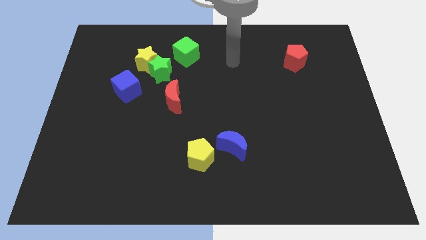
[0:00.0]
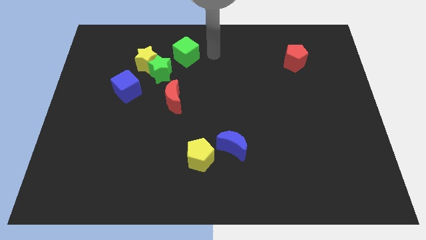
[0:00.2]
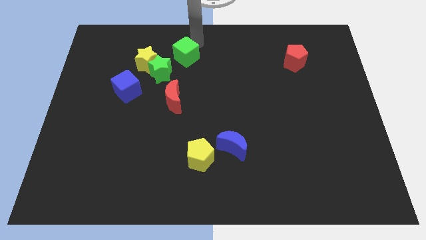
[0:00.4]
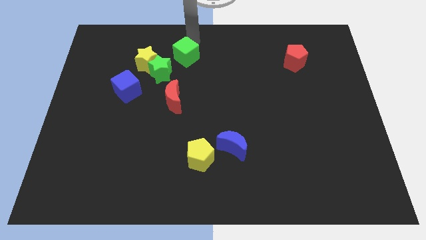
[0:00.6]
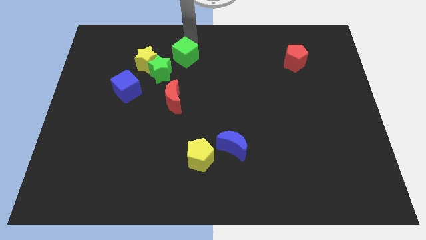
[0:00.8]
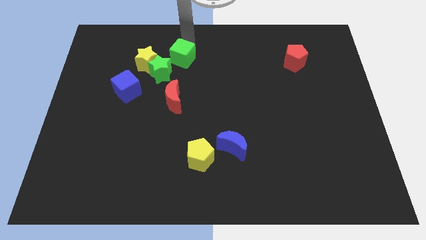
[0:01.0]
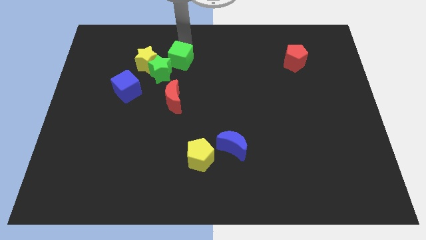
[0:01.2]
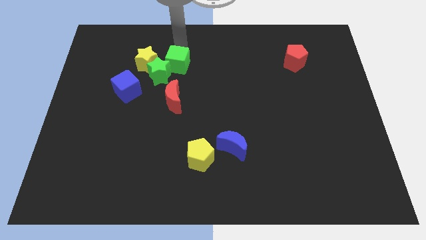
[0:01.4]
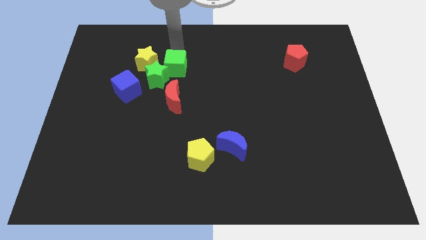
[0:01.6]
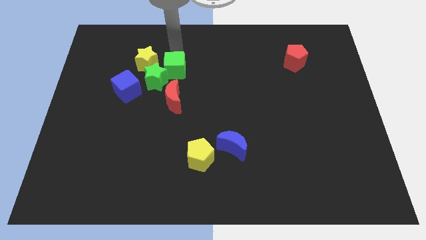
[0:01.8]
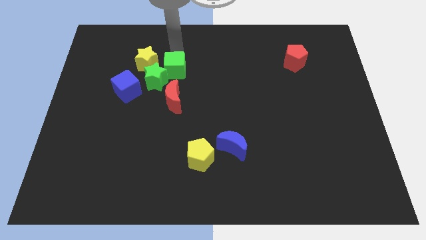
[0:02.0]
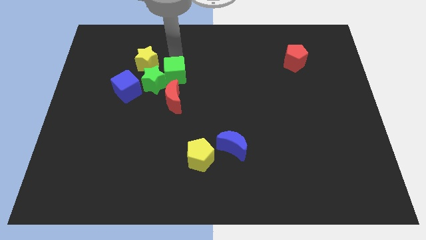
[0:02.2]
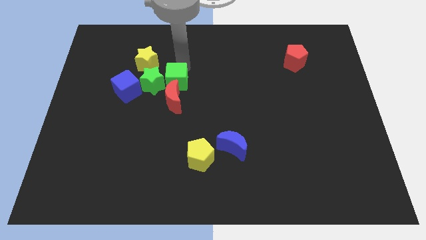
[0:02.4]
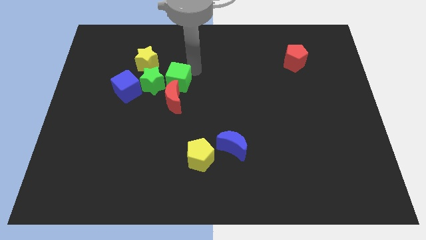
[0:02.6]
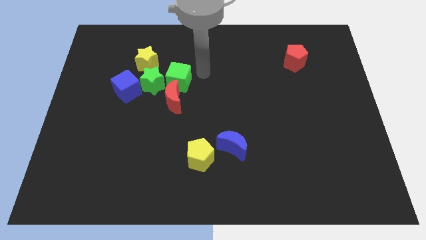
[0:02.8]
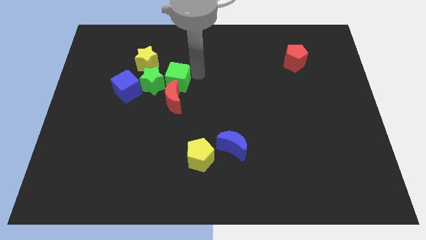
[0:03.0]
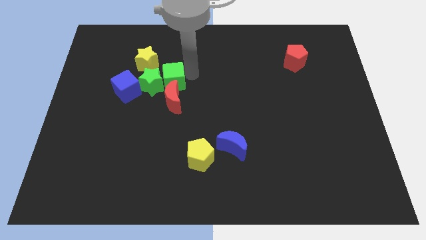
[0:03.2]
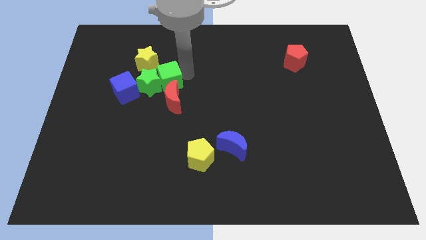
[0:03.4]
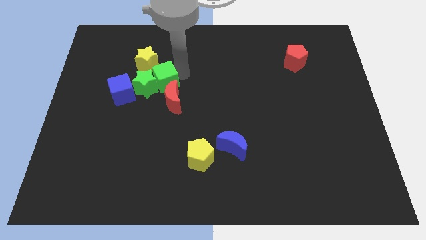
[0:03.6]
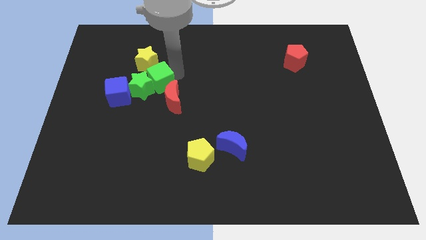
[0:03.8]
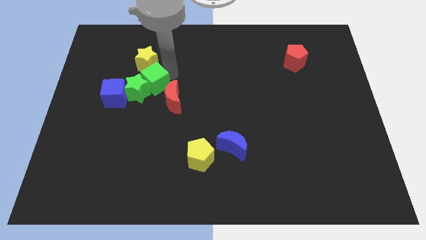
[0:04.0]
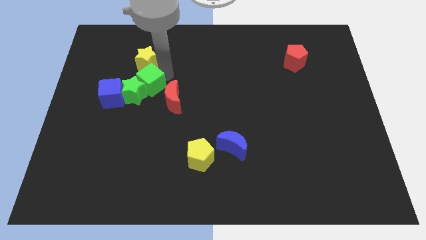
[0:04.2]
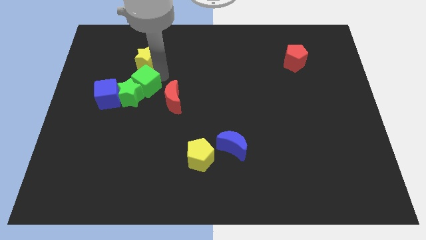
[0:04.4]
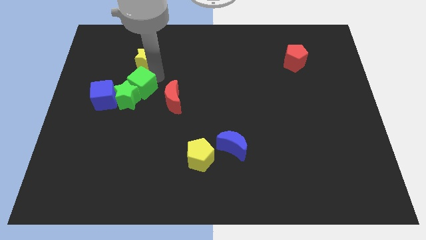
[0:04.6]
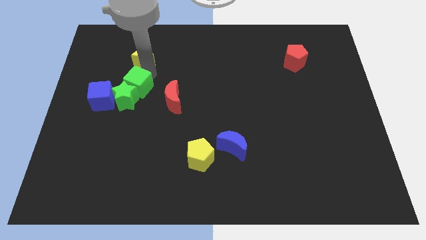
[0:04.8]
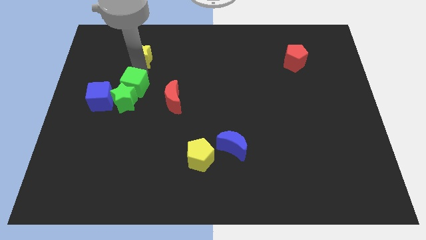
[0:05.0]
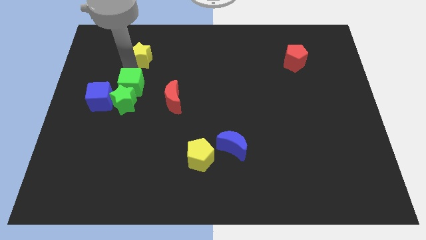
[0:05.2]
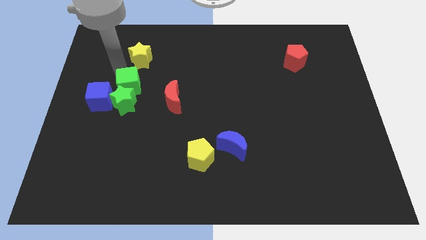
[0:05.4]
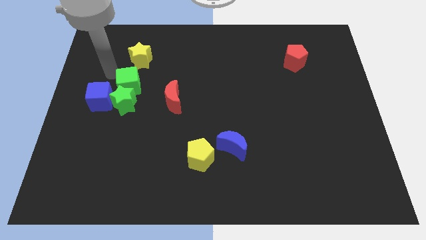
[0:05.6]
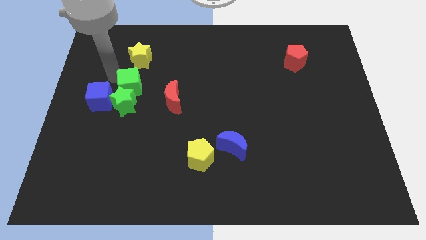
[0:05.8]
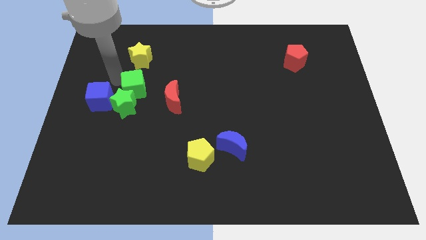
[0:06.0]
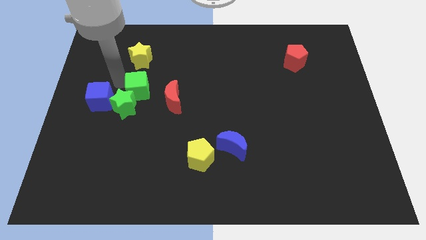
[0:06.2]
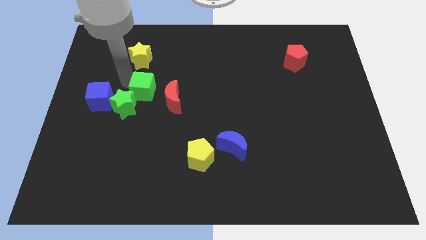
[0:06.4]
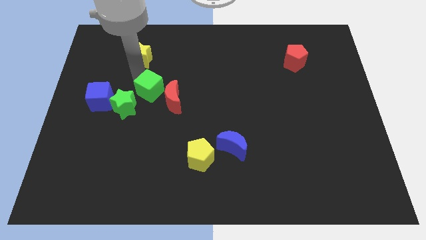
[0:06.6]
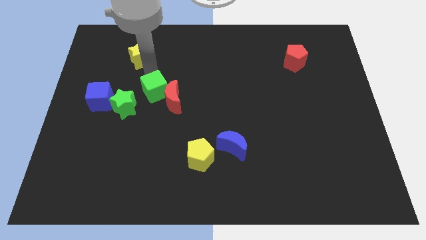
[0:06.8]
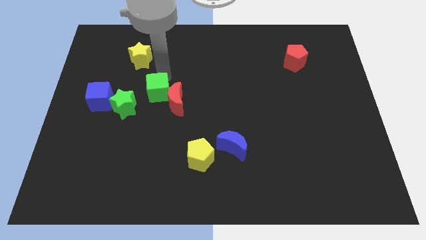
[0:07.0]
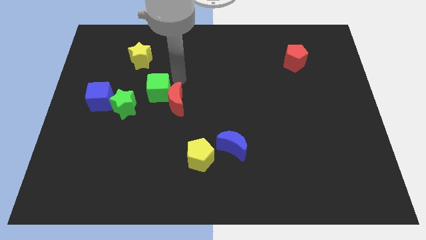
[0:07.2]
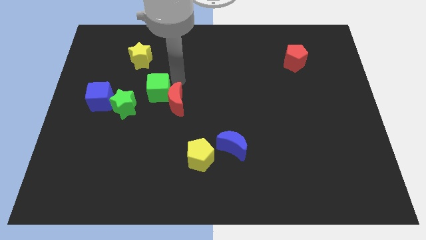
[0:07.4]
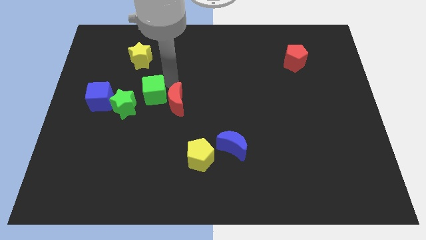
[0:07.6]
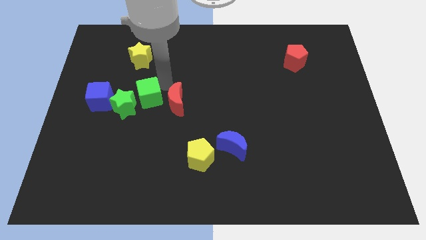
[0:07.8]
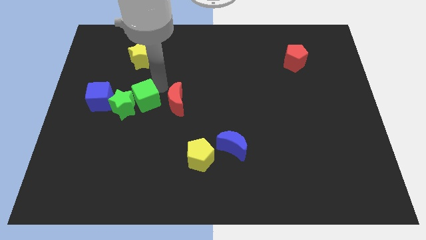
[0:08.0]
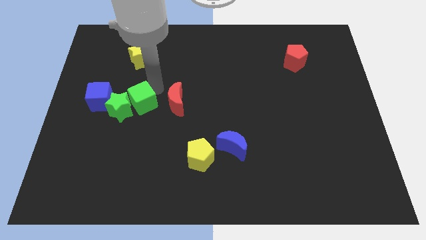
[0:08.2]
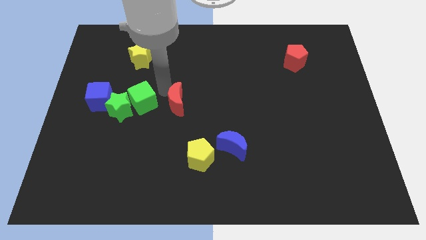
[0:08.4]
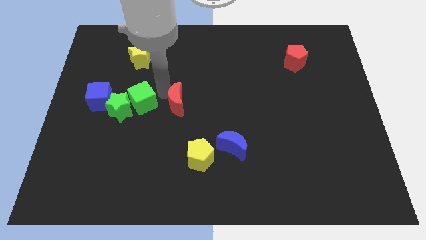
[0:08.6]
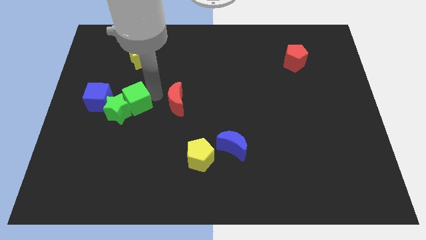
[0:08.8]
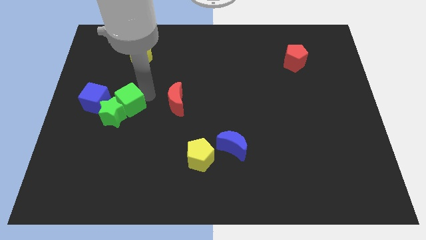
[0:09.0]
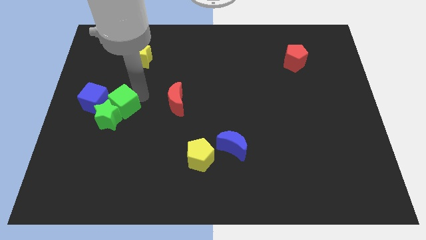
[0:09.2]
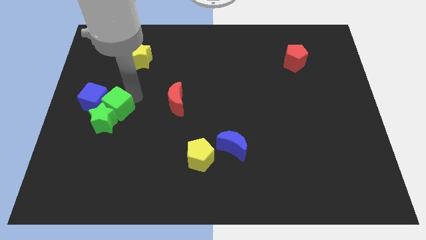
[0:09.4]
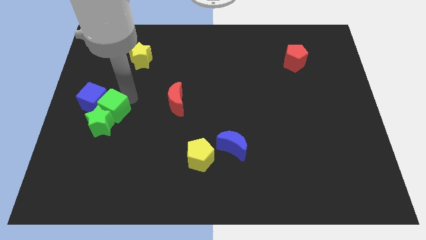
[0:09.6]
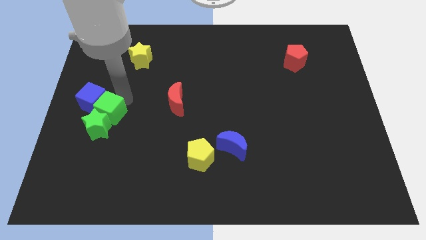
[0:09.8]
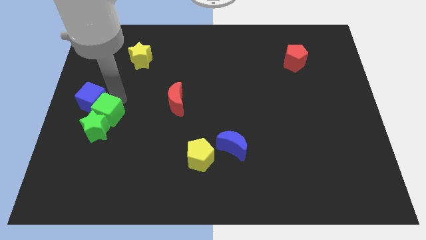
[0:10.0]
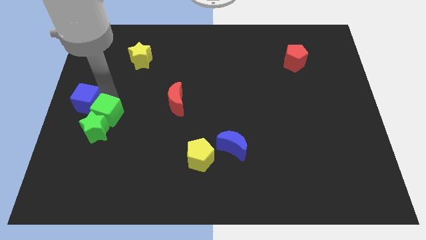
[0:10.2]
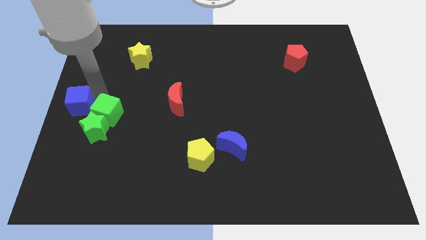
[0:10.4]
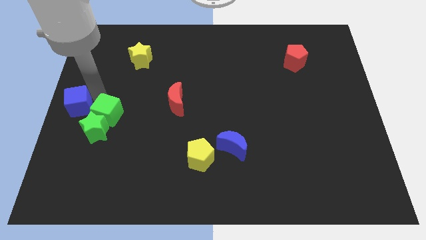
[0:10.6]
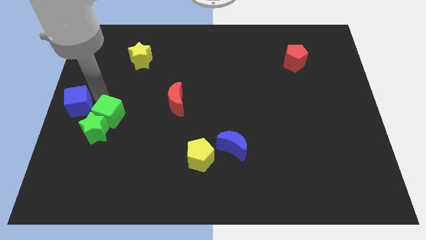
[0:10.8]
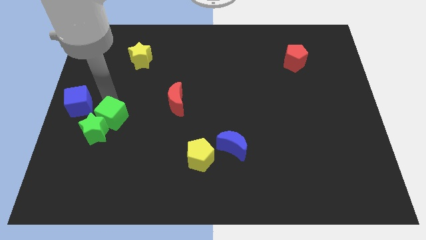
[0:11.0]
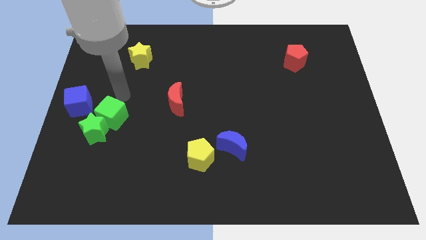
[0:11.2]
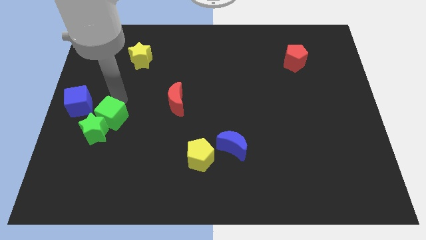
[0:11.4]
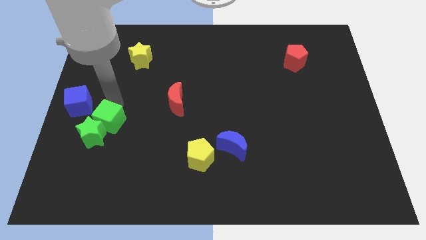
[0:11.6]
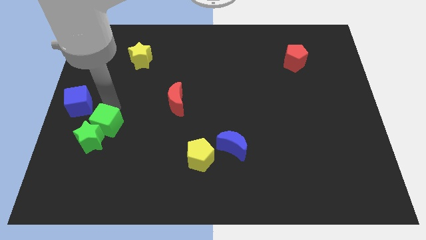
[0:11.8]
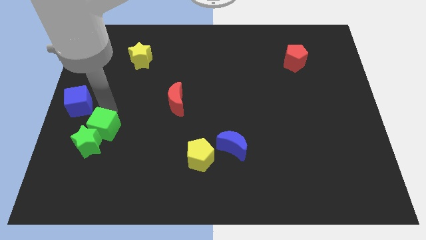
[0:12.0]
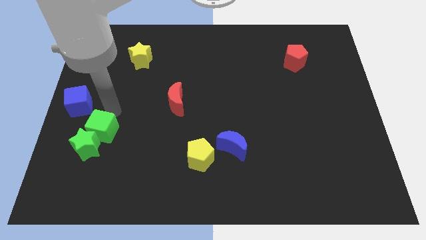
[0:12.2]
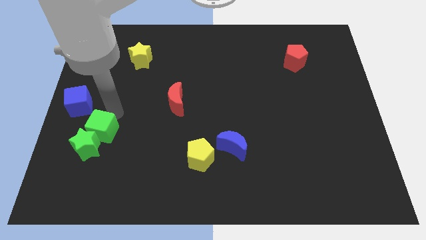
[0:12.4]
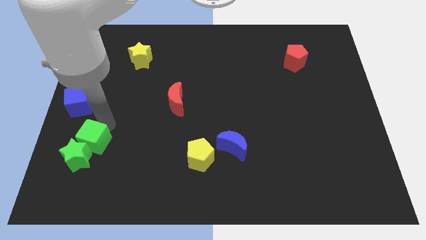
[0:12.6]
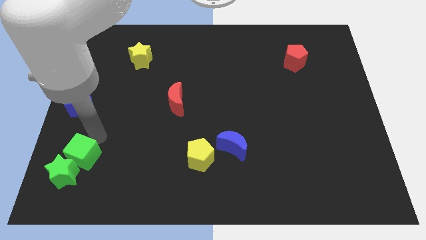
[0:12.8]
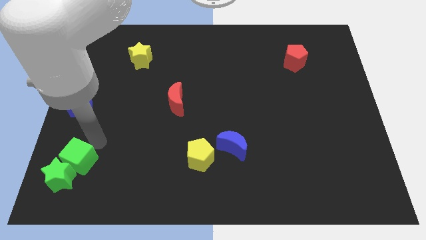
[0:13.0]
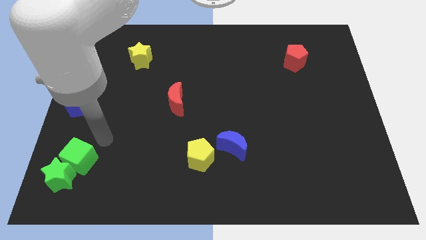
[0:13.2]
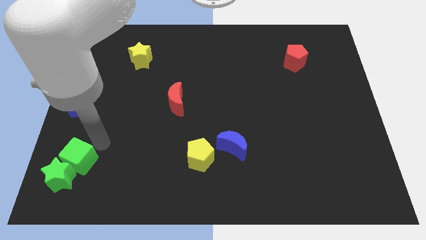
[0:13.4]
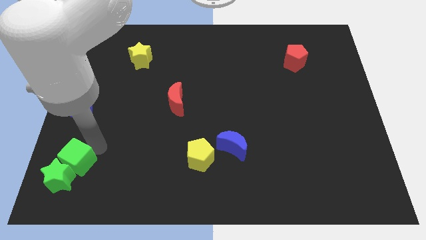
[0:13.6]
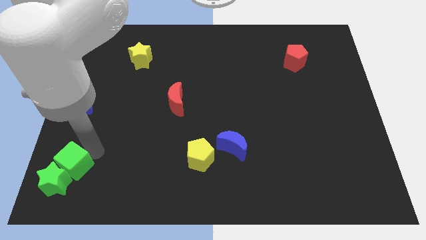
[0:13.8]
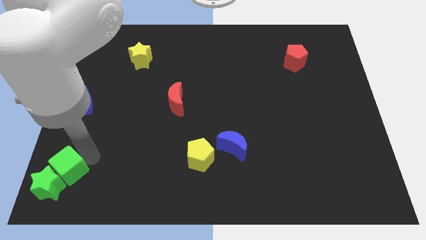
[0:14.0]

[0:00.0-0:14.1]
slide the green cube to the lower left corner
